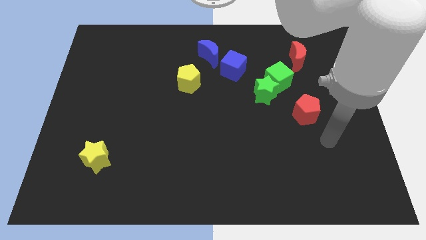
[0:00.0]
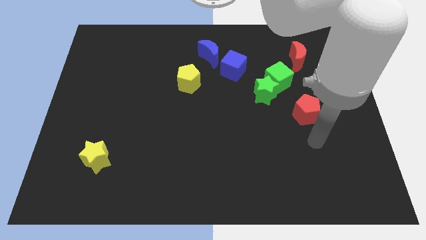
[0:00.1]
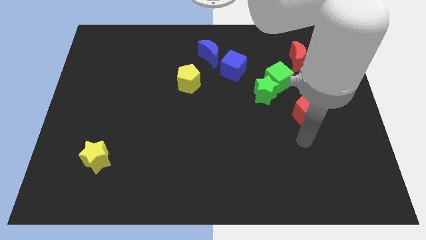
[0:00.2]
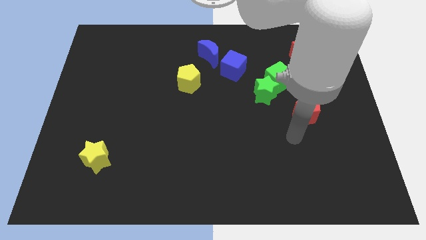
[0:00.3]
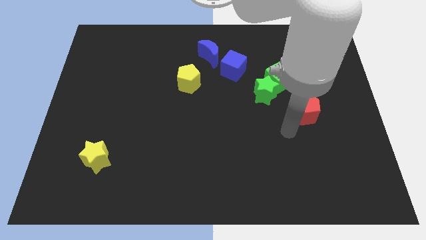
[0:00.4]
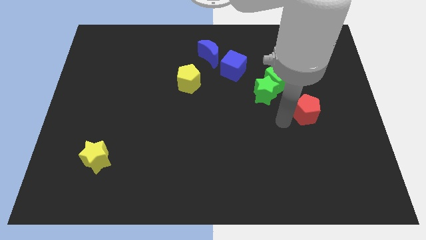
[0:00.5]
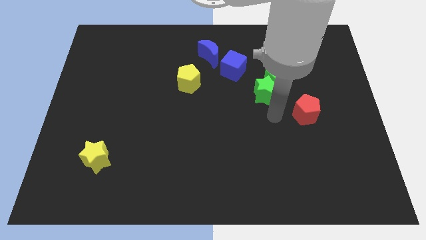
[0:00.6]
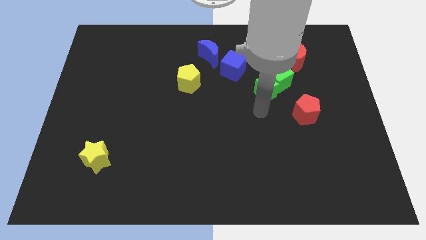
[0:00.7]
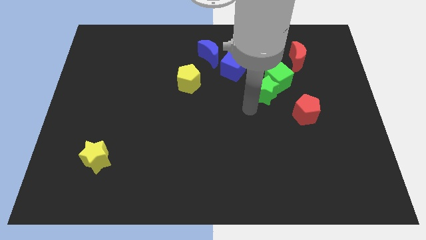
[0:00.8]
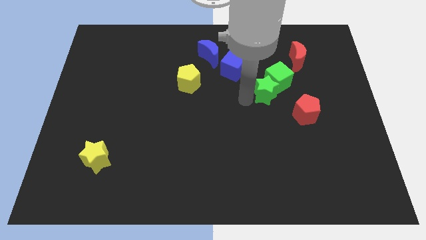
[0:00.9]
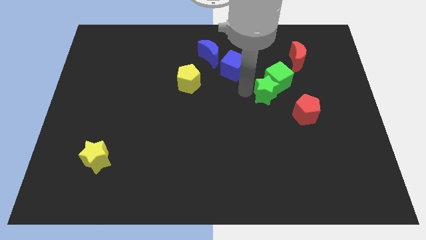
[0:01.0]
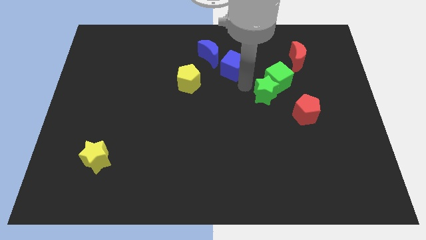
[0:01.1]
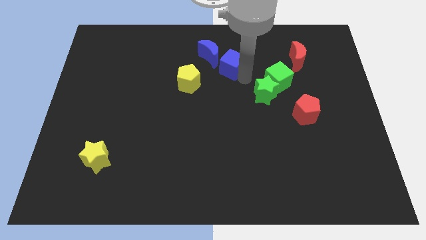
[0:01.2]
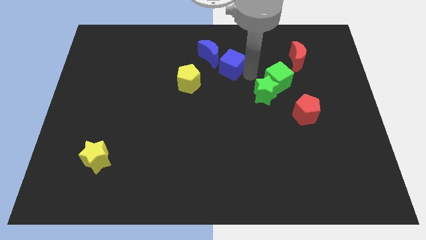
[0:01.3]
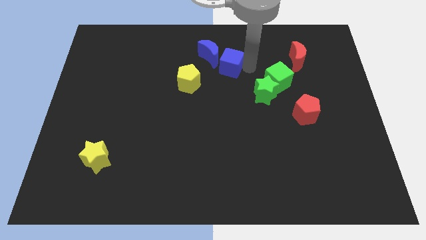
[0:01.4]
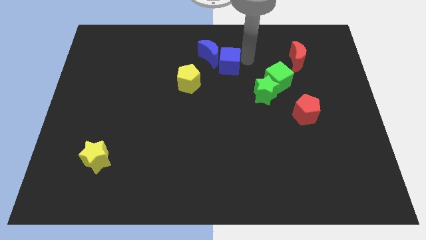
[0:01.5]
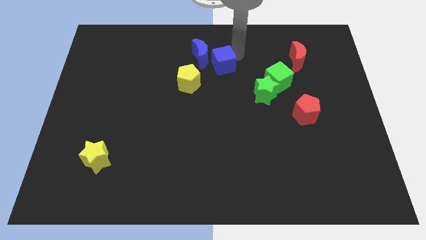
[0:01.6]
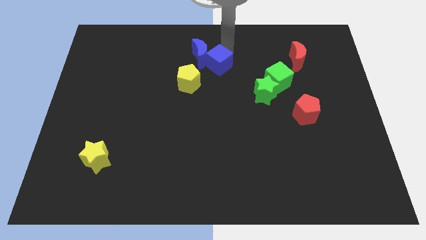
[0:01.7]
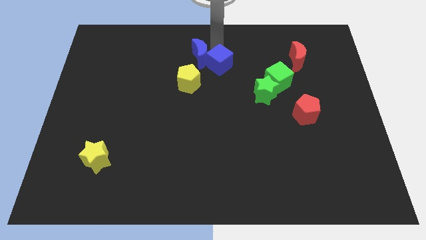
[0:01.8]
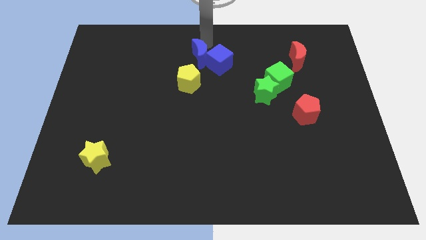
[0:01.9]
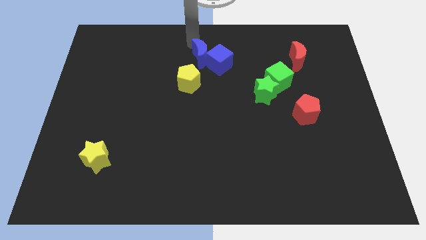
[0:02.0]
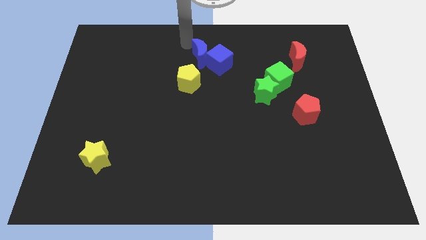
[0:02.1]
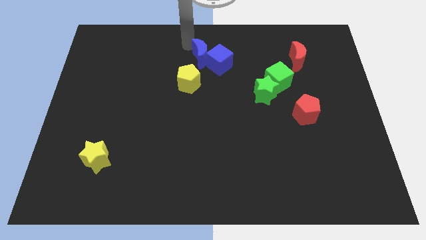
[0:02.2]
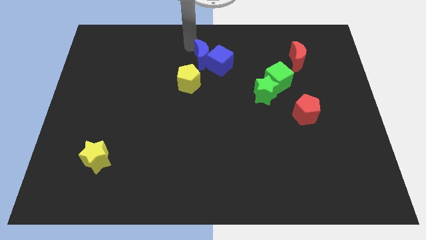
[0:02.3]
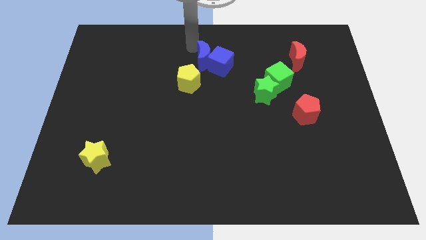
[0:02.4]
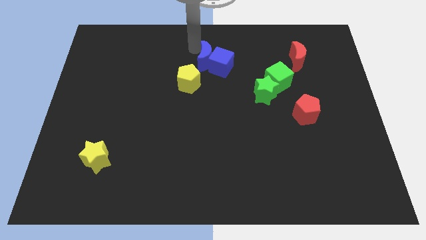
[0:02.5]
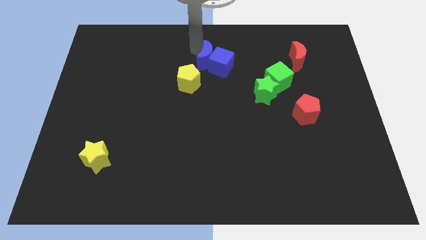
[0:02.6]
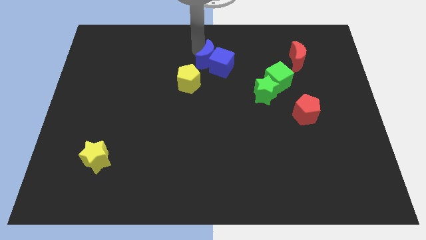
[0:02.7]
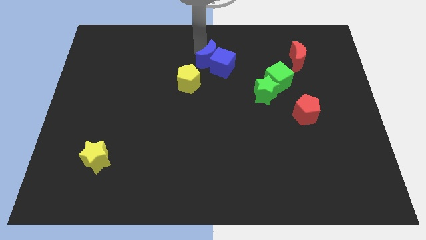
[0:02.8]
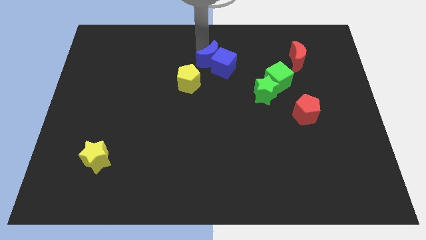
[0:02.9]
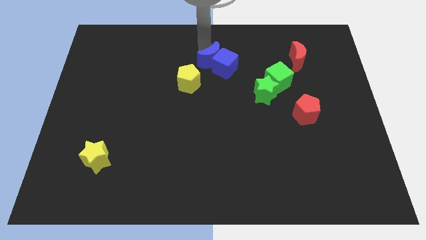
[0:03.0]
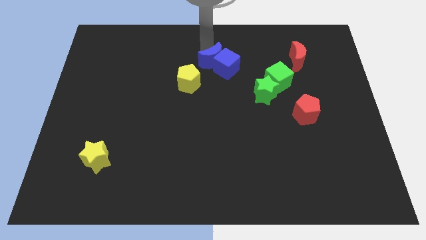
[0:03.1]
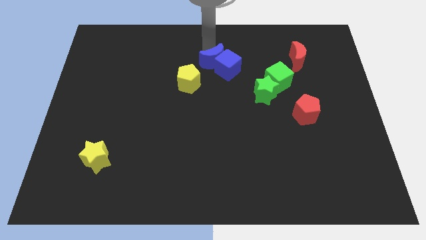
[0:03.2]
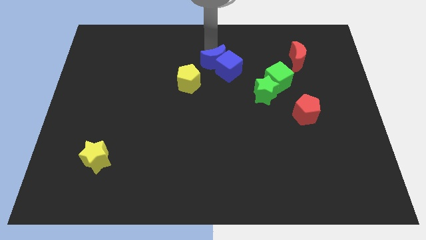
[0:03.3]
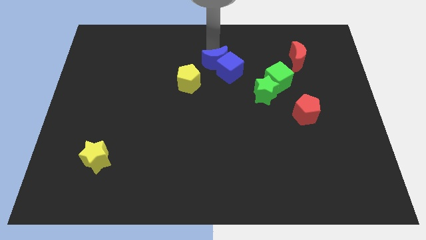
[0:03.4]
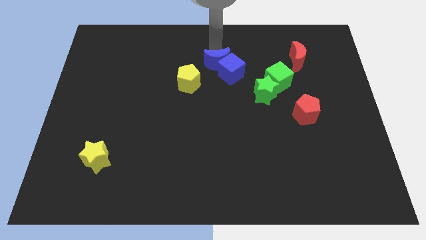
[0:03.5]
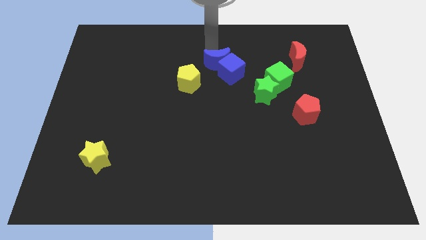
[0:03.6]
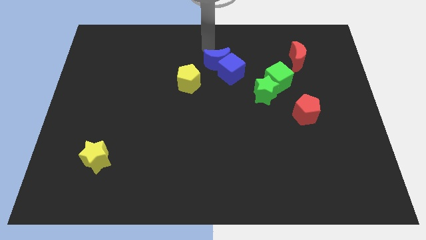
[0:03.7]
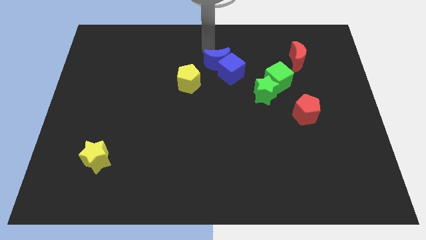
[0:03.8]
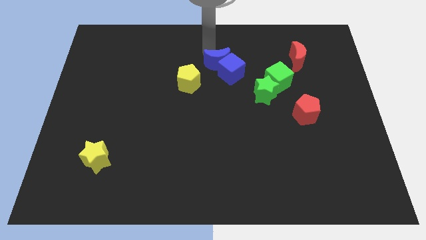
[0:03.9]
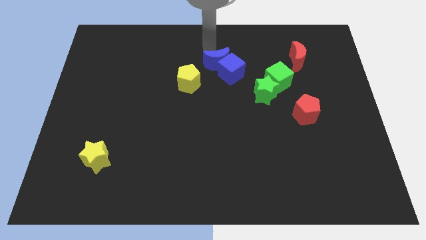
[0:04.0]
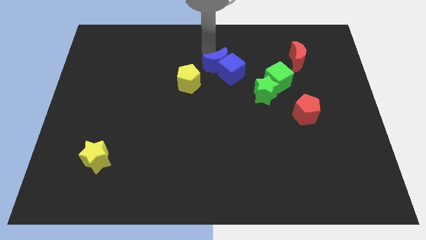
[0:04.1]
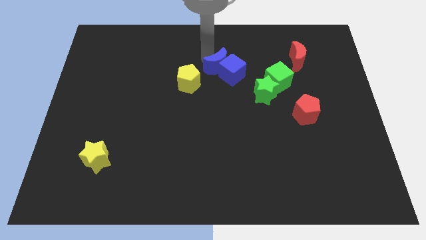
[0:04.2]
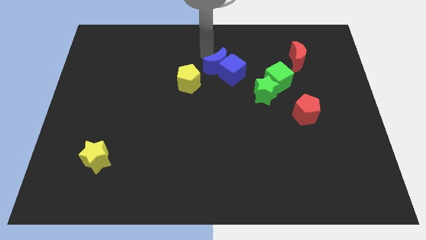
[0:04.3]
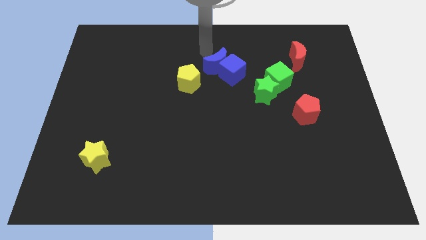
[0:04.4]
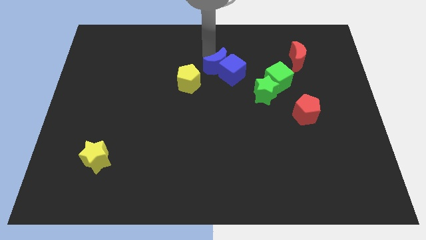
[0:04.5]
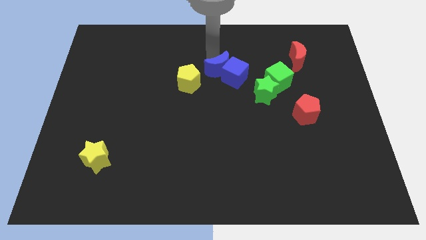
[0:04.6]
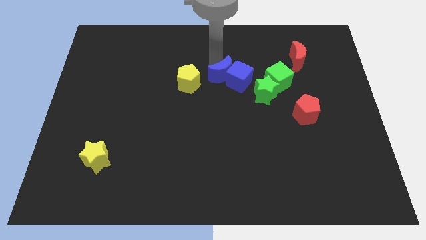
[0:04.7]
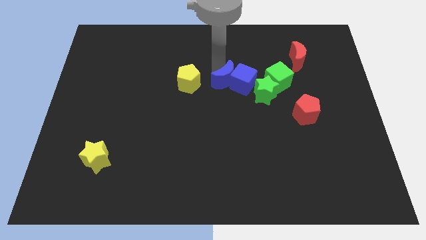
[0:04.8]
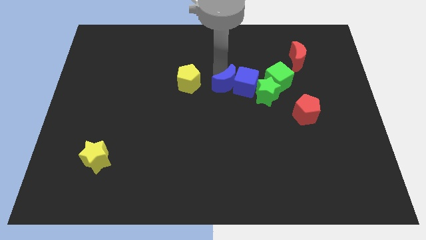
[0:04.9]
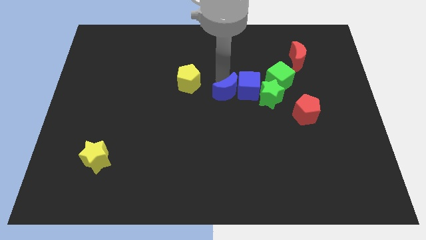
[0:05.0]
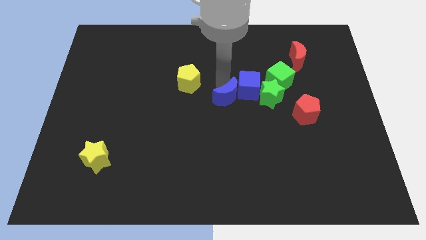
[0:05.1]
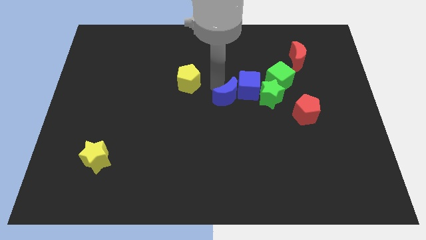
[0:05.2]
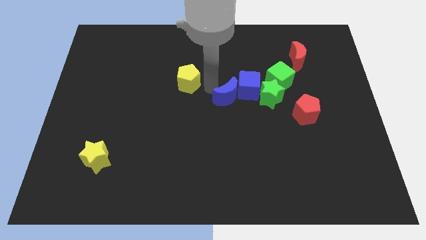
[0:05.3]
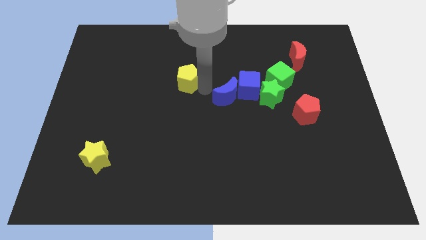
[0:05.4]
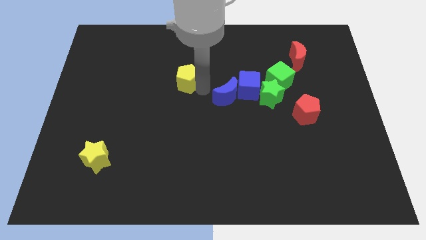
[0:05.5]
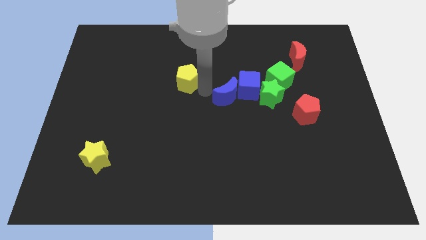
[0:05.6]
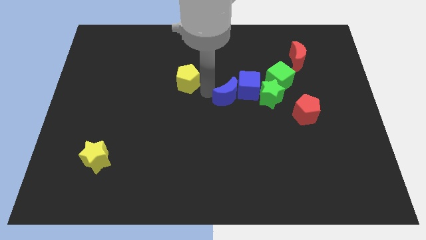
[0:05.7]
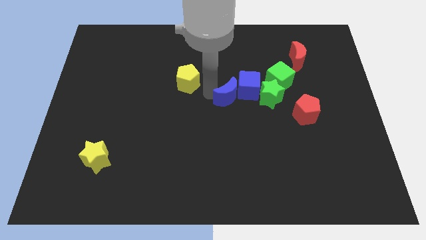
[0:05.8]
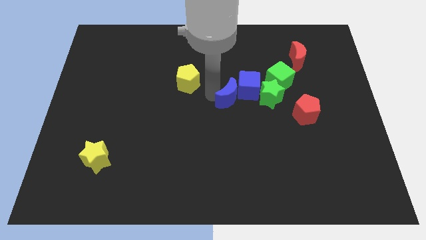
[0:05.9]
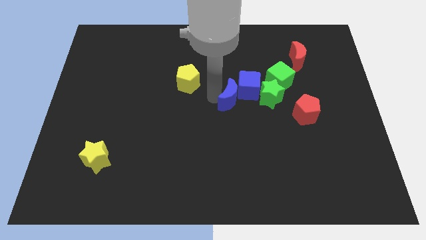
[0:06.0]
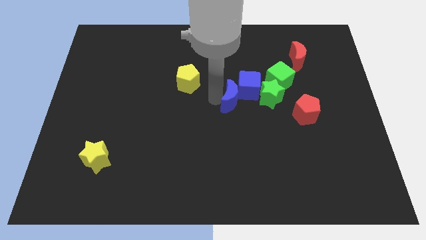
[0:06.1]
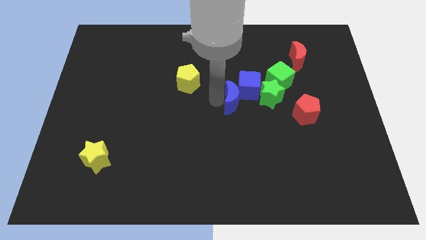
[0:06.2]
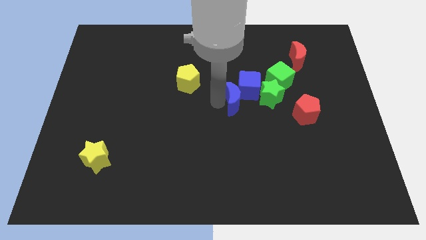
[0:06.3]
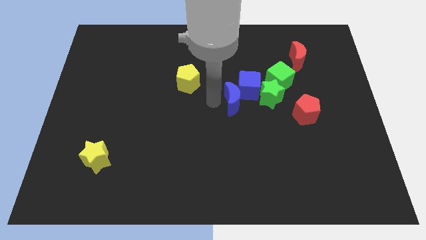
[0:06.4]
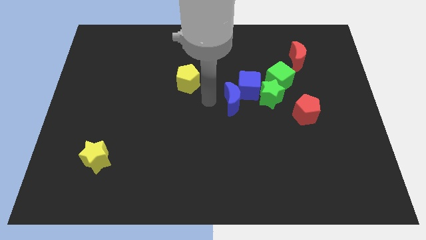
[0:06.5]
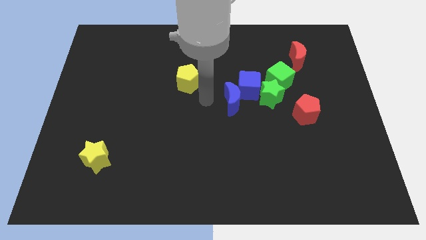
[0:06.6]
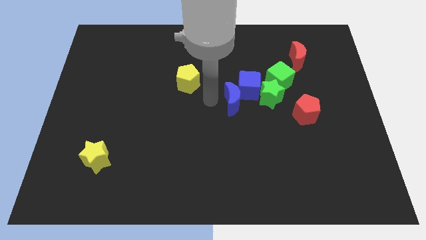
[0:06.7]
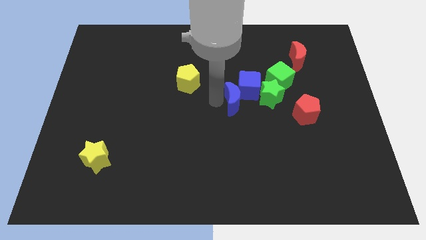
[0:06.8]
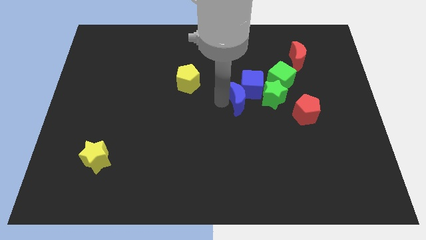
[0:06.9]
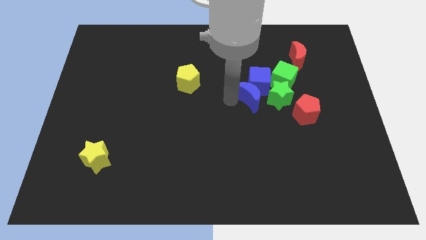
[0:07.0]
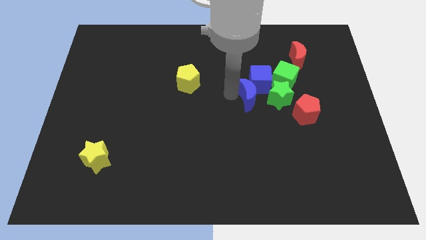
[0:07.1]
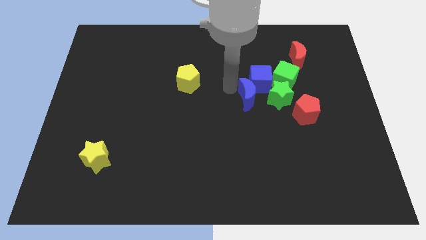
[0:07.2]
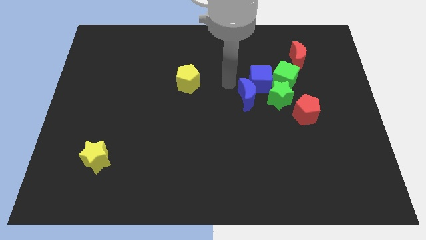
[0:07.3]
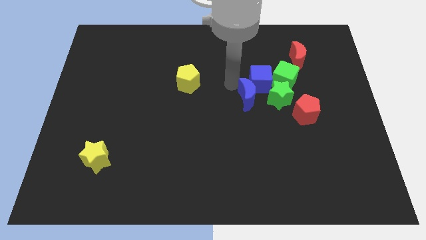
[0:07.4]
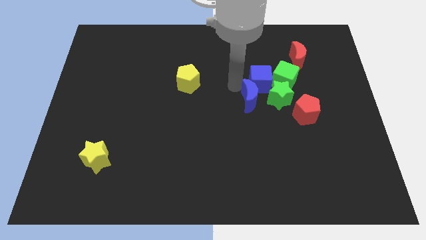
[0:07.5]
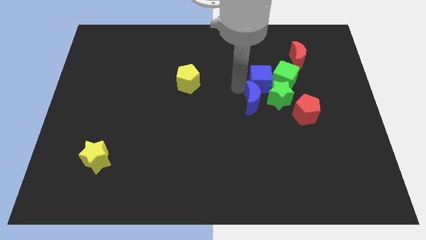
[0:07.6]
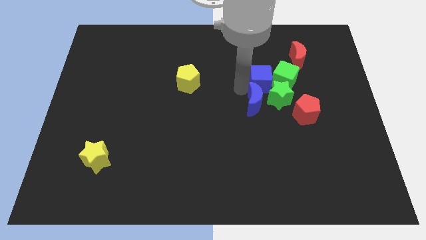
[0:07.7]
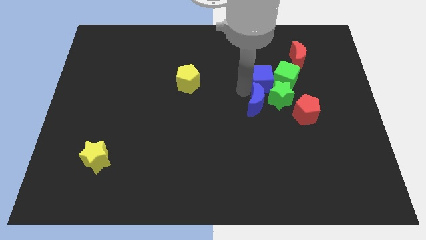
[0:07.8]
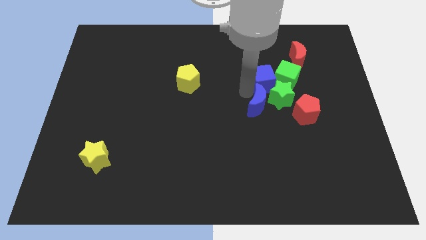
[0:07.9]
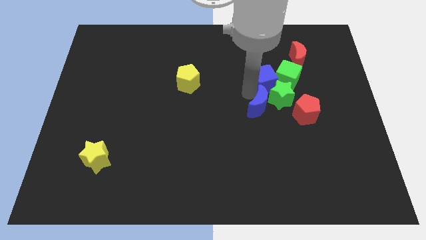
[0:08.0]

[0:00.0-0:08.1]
move the blue moon downwards and to the right diagonally
